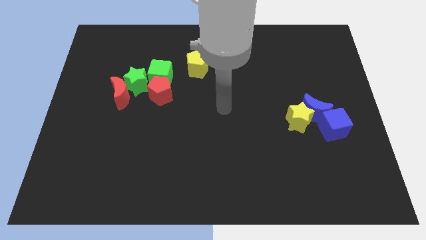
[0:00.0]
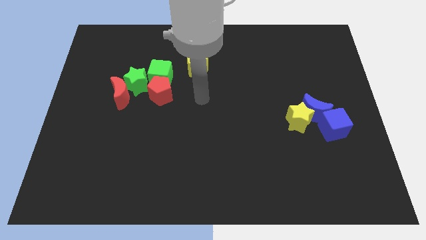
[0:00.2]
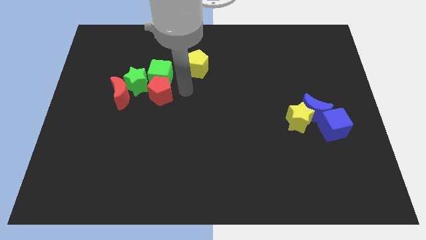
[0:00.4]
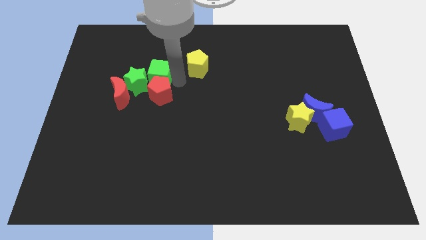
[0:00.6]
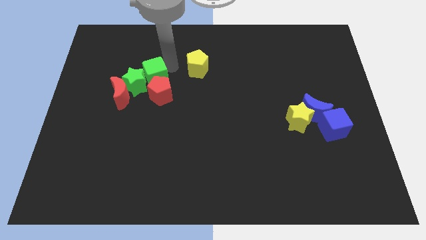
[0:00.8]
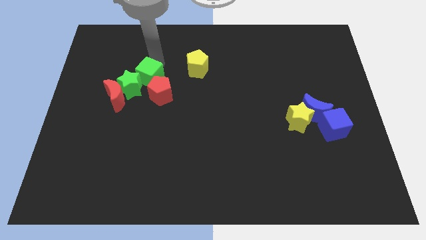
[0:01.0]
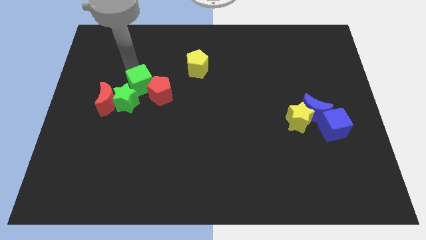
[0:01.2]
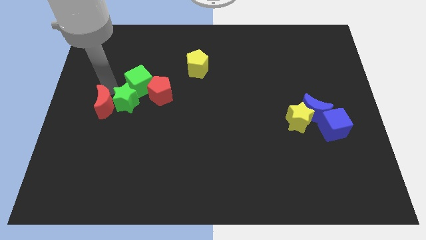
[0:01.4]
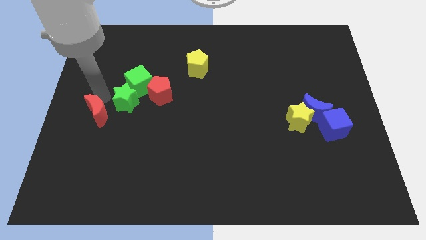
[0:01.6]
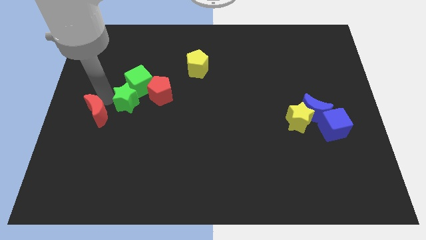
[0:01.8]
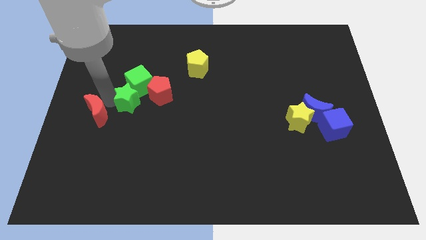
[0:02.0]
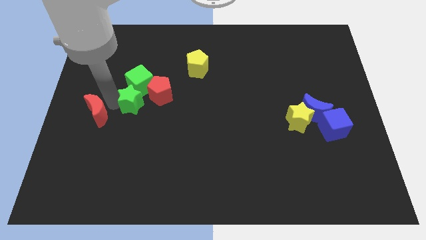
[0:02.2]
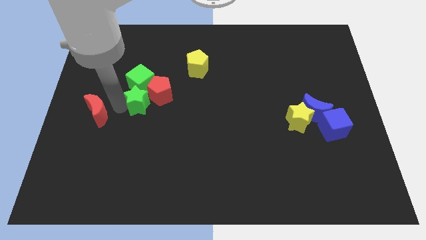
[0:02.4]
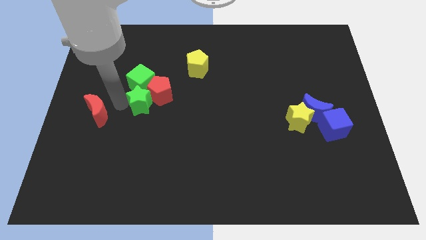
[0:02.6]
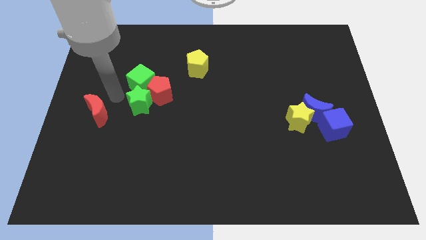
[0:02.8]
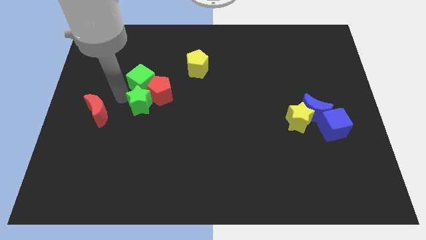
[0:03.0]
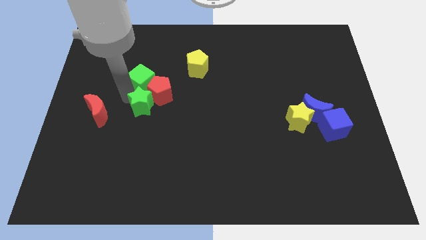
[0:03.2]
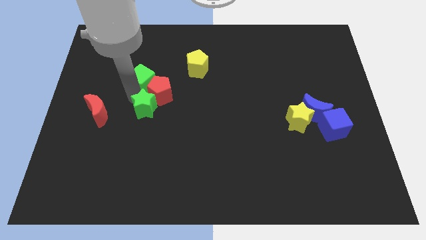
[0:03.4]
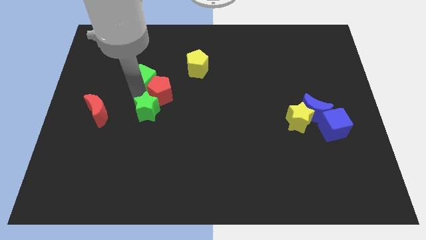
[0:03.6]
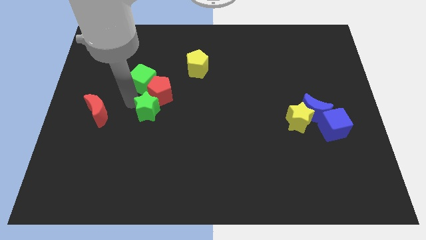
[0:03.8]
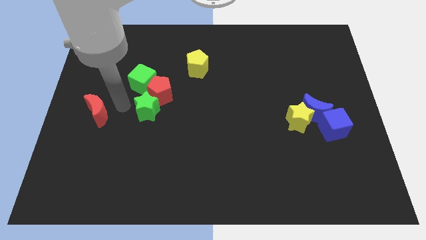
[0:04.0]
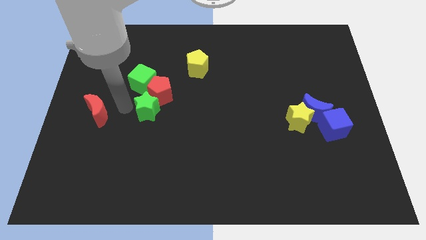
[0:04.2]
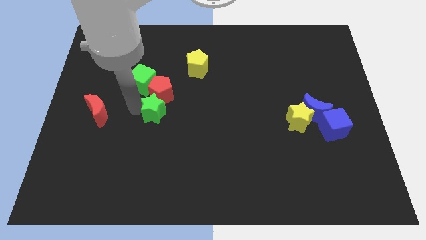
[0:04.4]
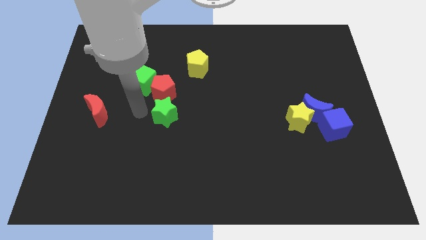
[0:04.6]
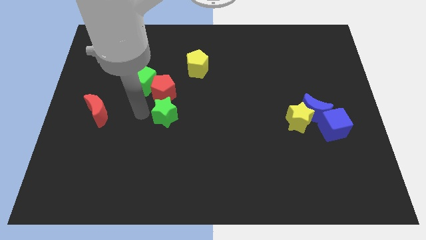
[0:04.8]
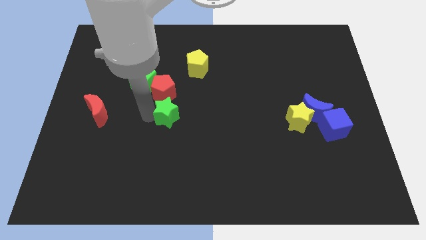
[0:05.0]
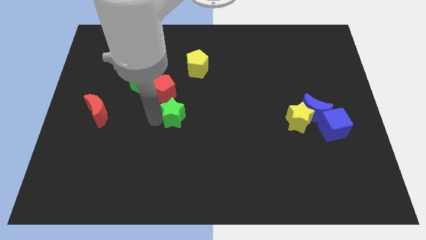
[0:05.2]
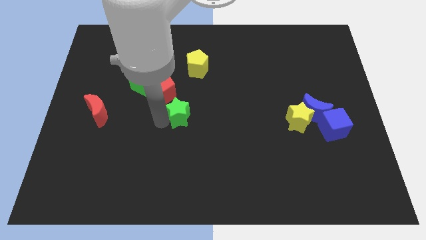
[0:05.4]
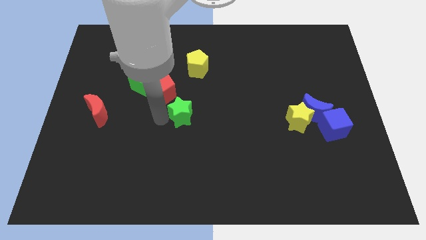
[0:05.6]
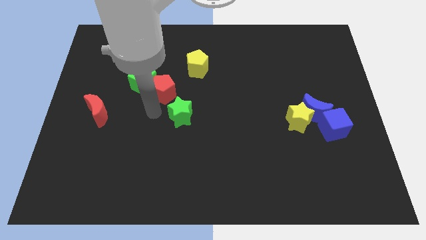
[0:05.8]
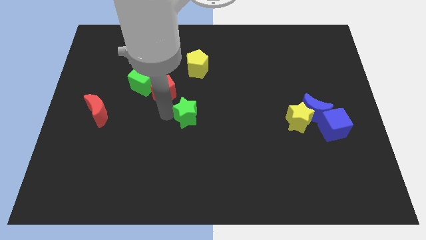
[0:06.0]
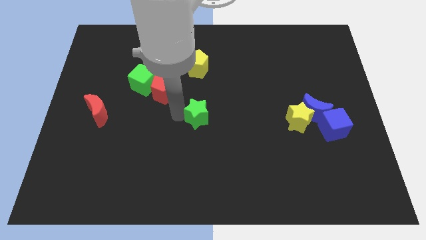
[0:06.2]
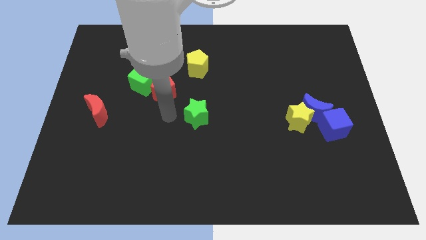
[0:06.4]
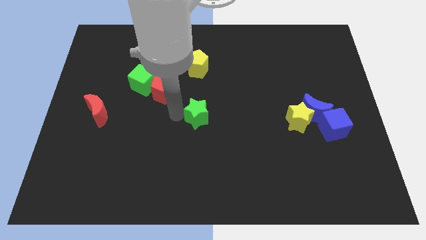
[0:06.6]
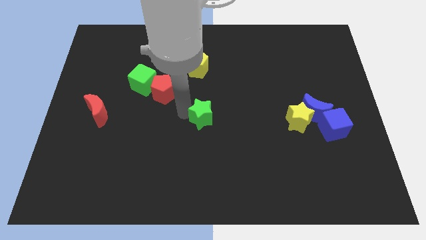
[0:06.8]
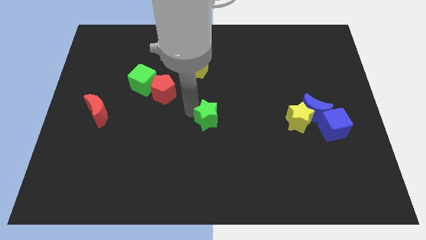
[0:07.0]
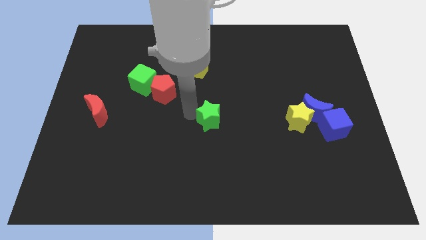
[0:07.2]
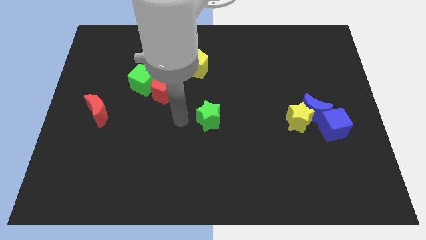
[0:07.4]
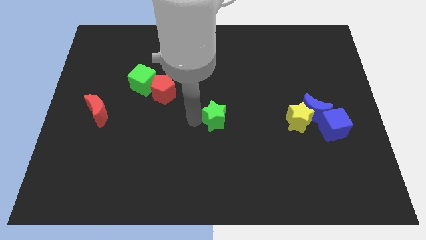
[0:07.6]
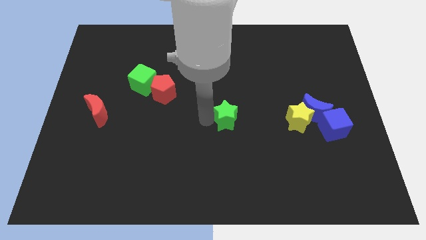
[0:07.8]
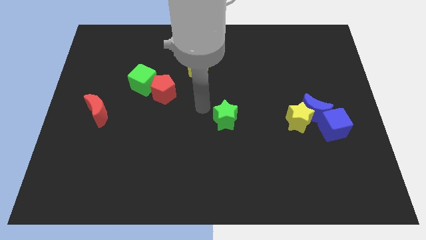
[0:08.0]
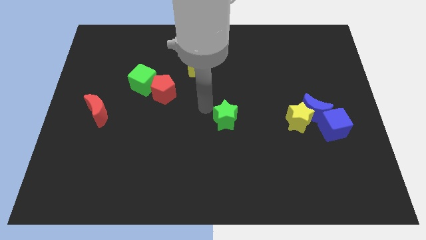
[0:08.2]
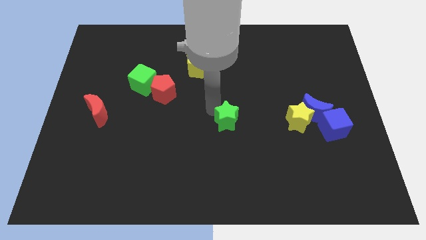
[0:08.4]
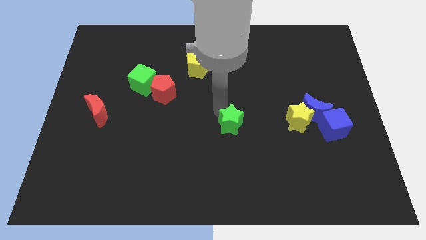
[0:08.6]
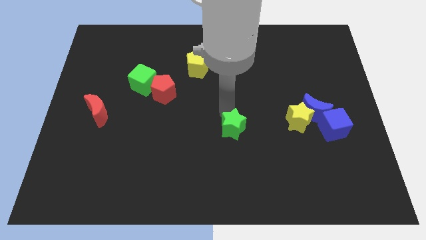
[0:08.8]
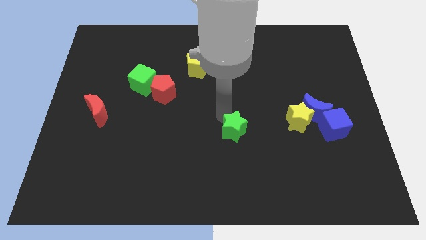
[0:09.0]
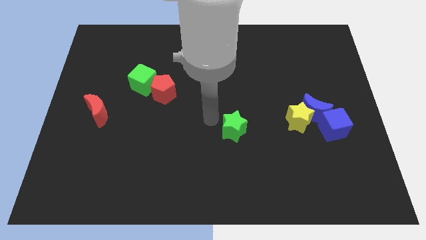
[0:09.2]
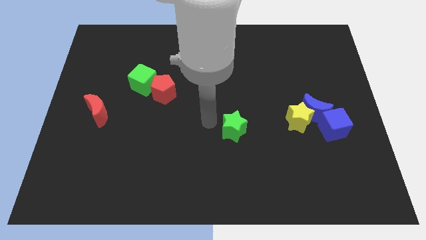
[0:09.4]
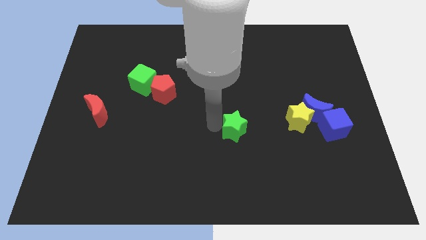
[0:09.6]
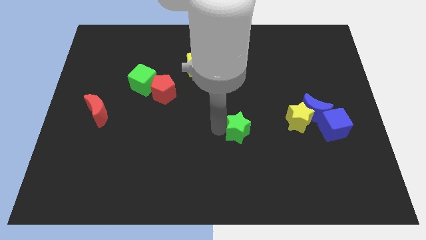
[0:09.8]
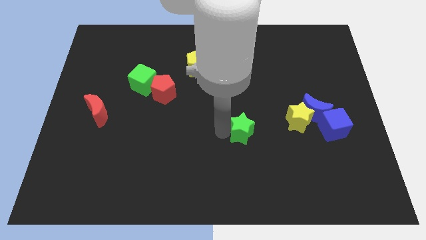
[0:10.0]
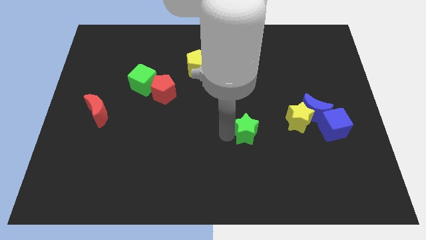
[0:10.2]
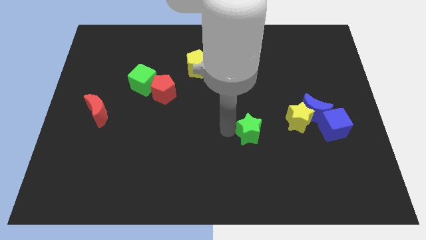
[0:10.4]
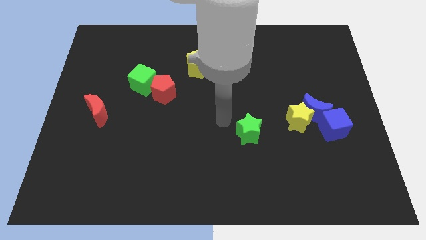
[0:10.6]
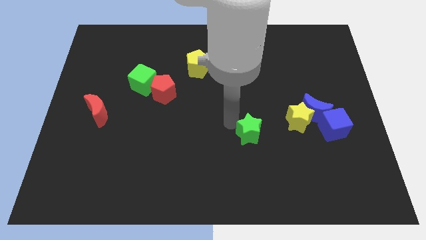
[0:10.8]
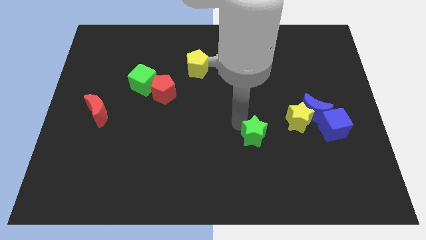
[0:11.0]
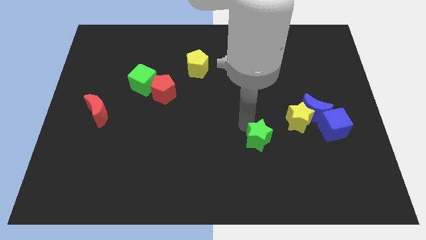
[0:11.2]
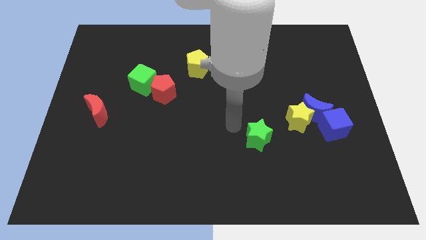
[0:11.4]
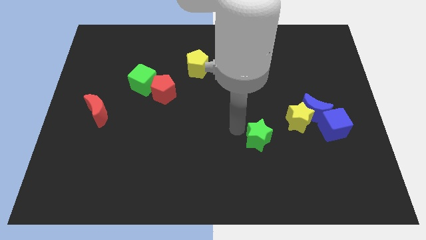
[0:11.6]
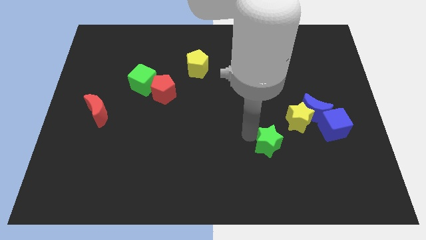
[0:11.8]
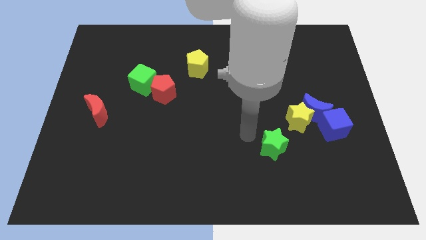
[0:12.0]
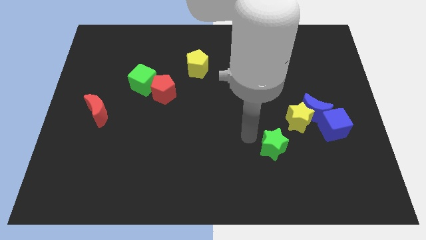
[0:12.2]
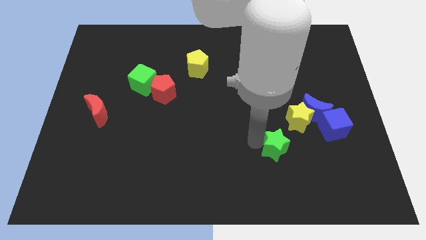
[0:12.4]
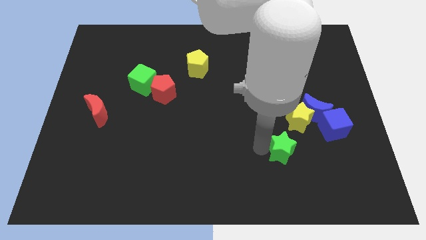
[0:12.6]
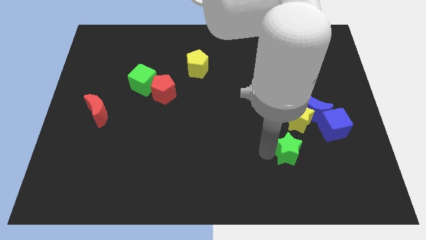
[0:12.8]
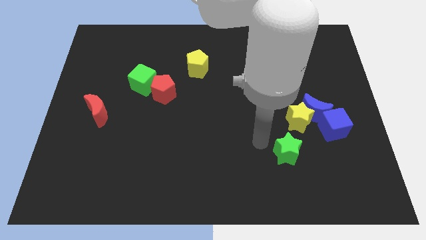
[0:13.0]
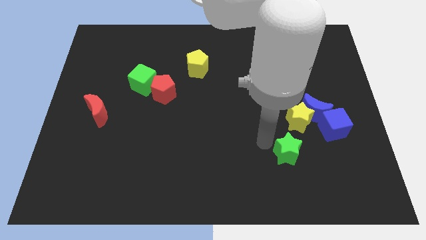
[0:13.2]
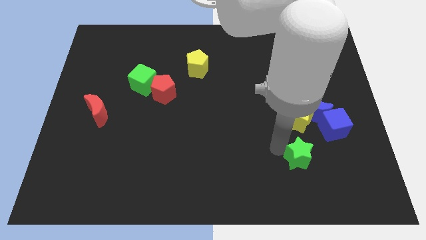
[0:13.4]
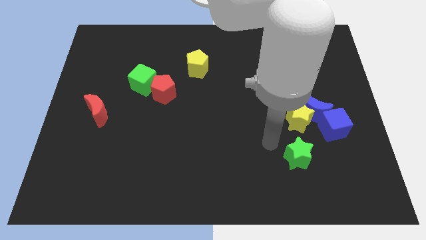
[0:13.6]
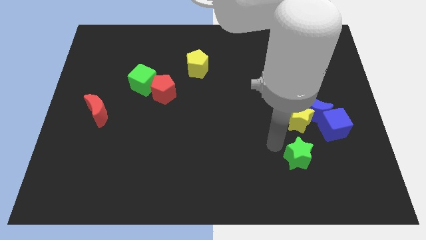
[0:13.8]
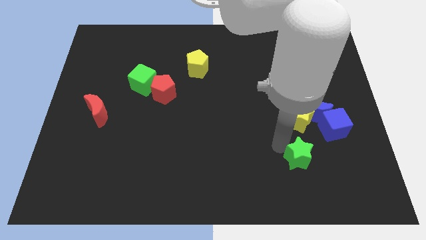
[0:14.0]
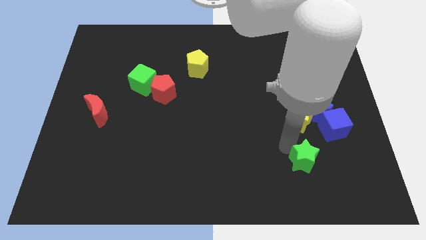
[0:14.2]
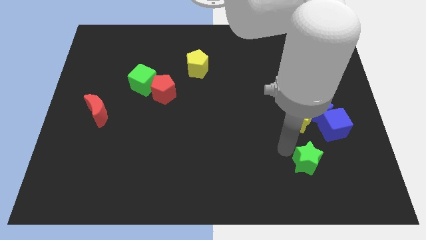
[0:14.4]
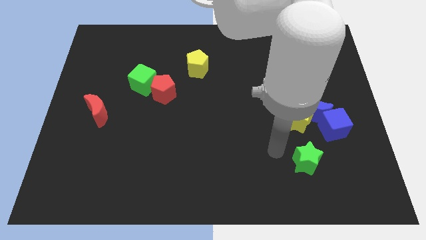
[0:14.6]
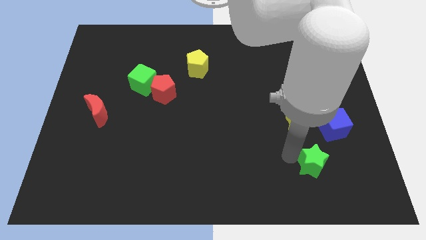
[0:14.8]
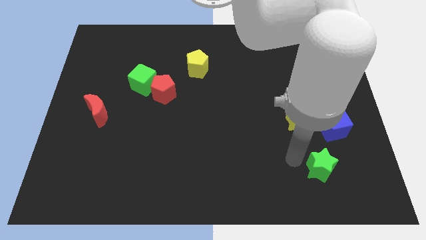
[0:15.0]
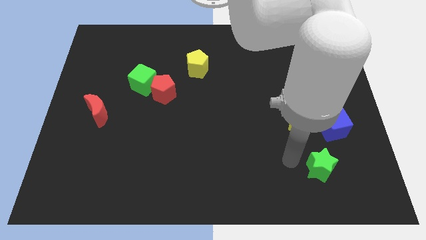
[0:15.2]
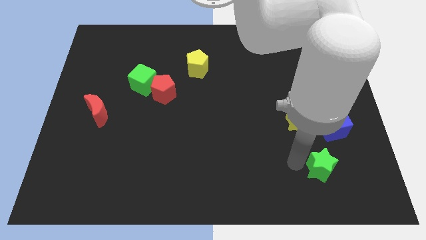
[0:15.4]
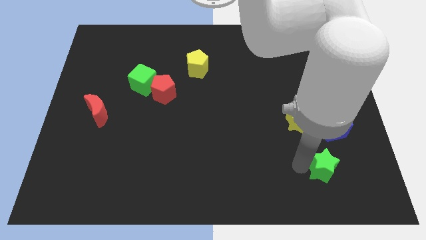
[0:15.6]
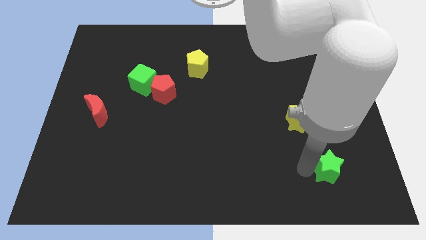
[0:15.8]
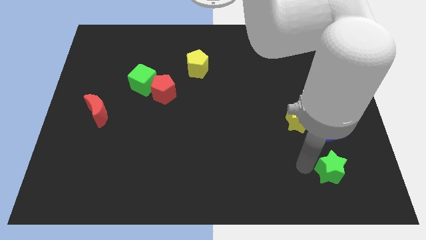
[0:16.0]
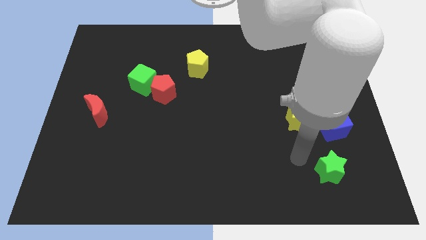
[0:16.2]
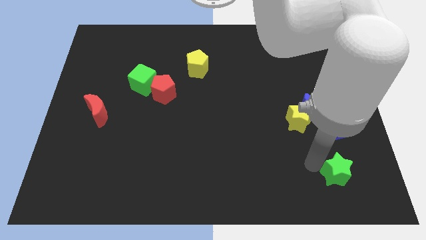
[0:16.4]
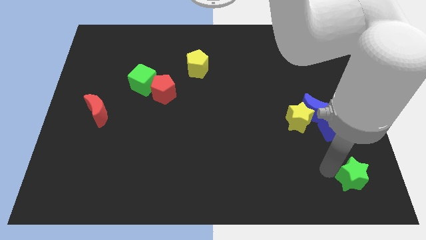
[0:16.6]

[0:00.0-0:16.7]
slide the green star to the lower right corner
